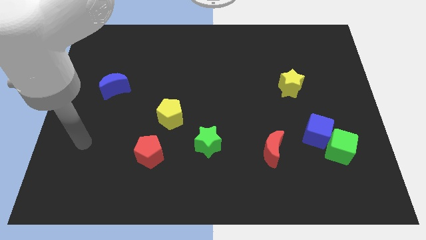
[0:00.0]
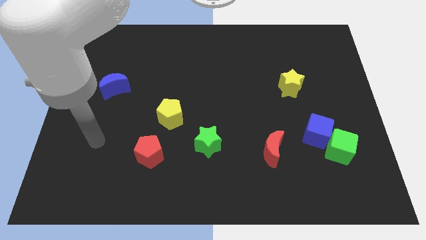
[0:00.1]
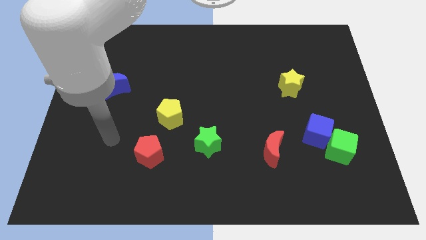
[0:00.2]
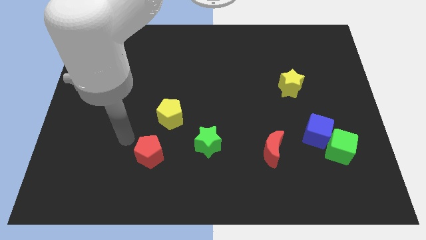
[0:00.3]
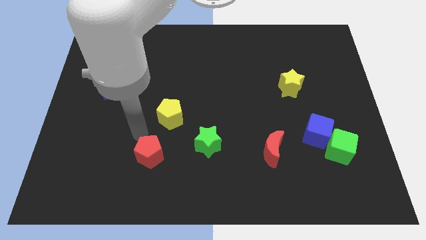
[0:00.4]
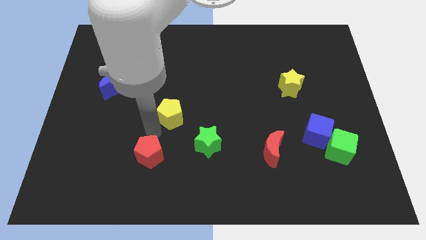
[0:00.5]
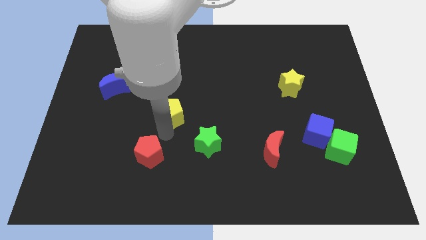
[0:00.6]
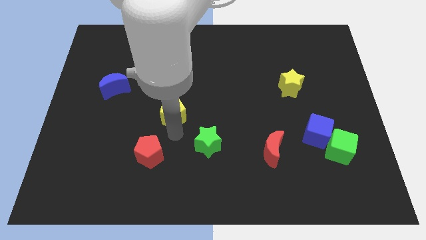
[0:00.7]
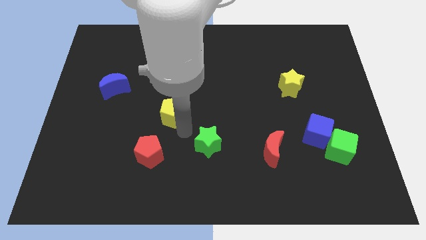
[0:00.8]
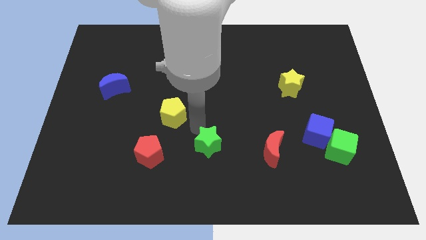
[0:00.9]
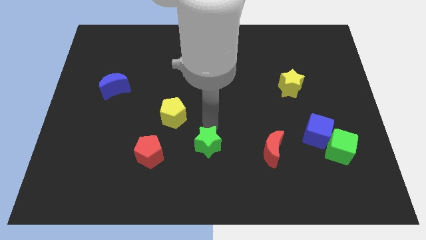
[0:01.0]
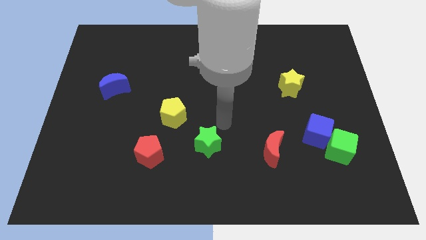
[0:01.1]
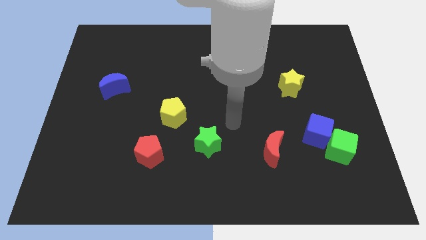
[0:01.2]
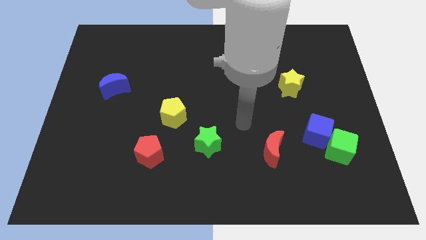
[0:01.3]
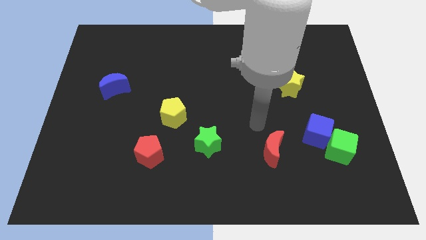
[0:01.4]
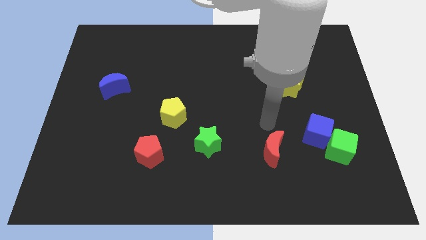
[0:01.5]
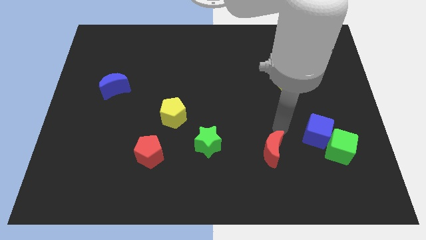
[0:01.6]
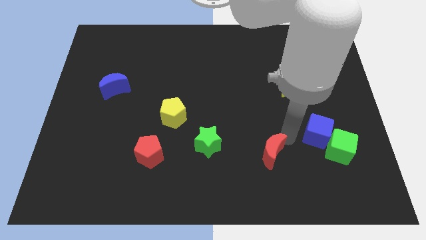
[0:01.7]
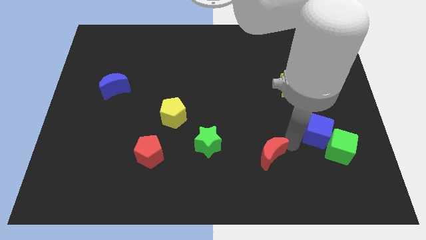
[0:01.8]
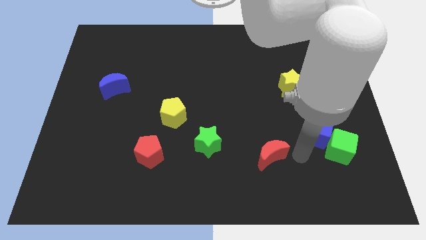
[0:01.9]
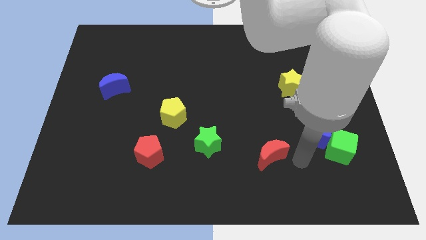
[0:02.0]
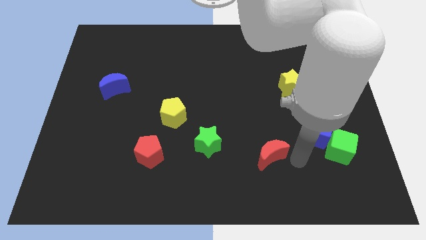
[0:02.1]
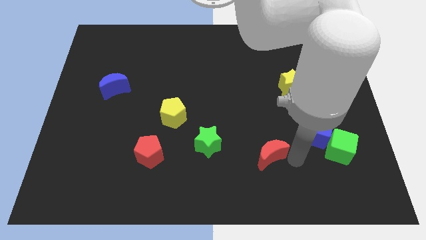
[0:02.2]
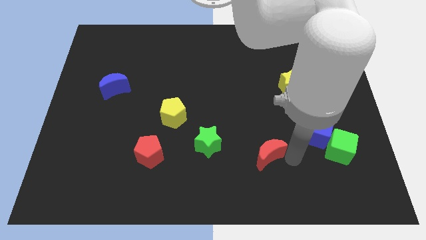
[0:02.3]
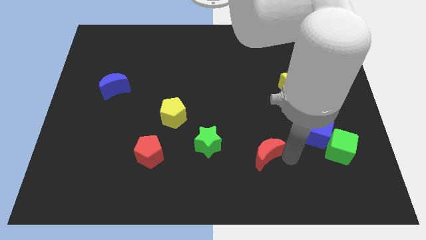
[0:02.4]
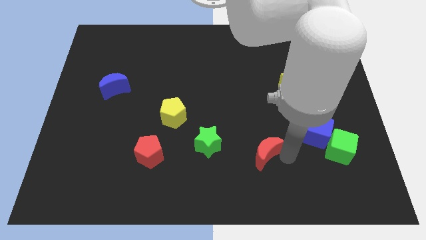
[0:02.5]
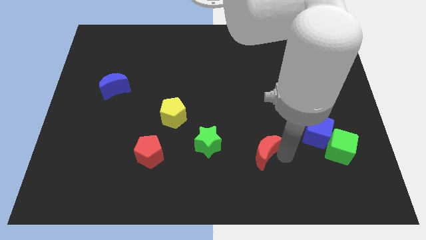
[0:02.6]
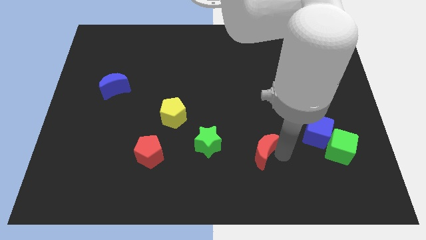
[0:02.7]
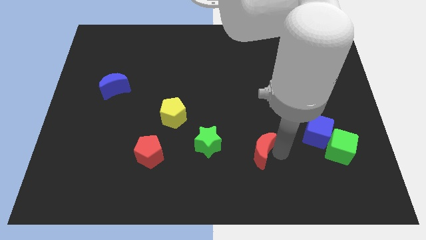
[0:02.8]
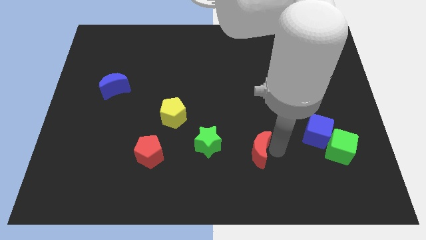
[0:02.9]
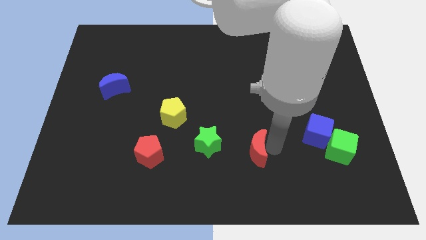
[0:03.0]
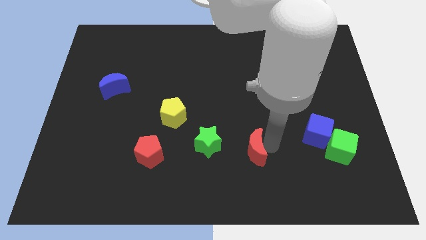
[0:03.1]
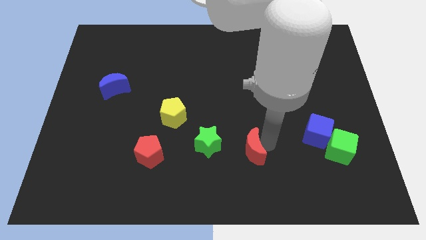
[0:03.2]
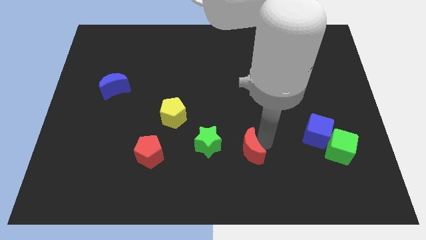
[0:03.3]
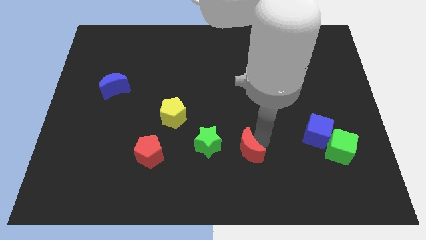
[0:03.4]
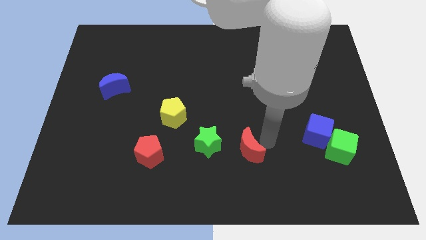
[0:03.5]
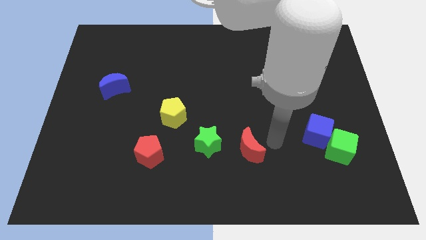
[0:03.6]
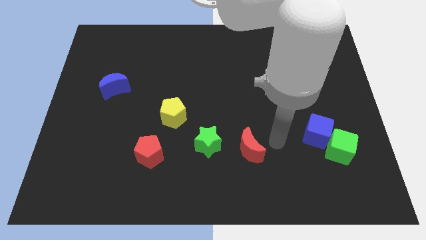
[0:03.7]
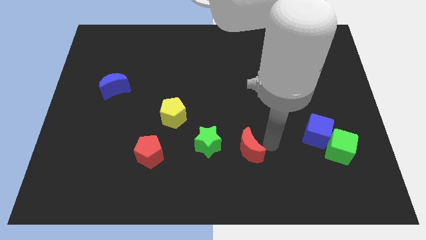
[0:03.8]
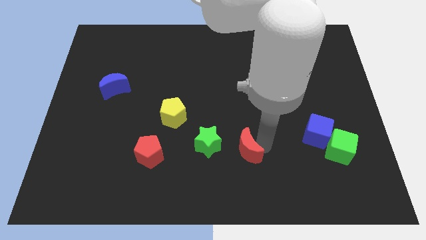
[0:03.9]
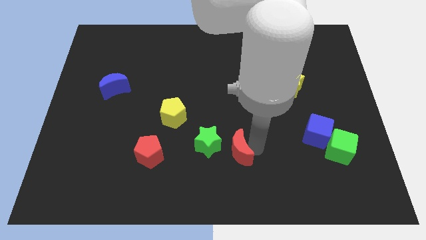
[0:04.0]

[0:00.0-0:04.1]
move the red moon to the left a bit

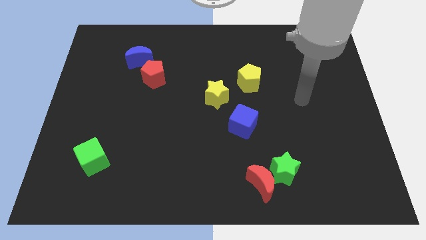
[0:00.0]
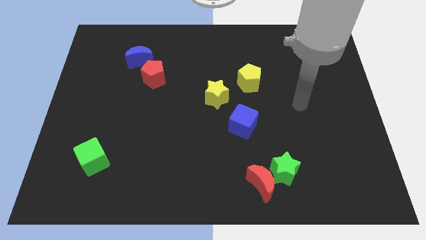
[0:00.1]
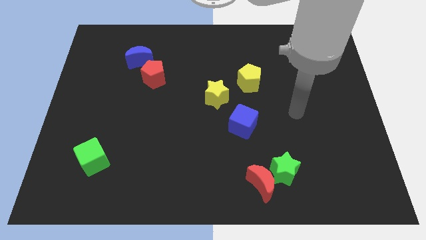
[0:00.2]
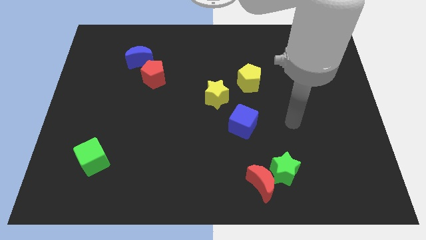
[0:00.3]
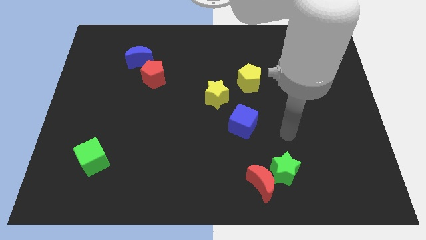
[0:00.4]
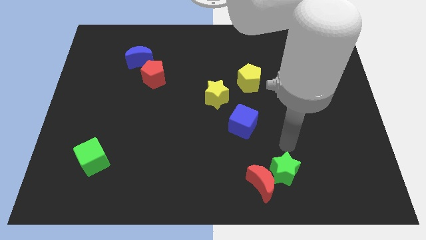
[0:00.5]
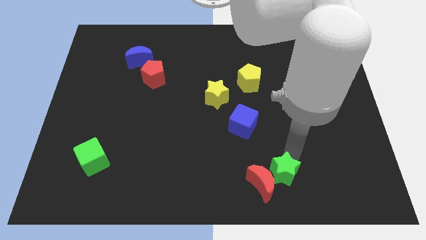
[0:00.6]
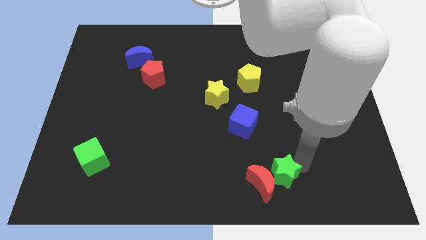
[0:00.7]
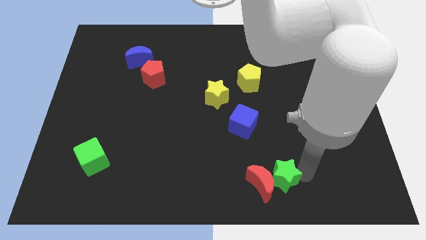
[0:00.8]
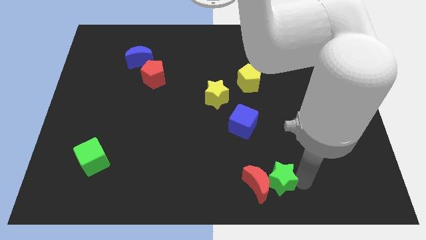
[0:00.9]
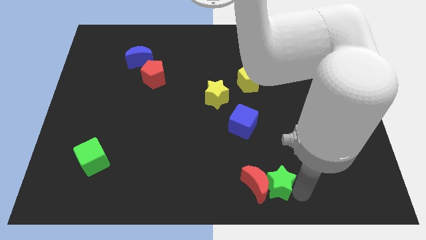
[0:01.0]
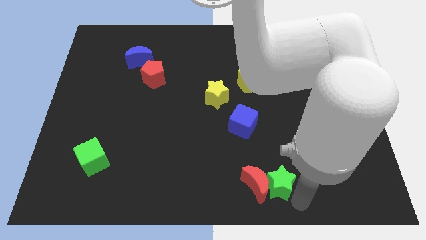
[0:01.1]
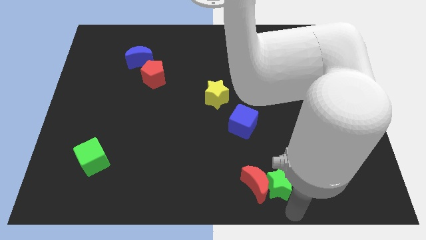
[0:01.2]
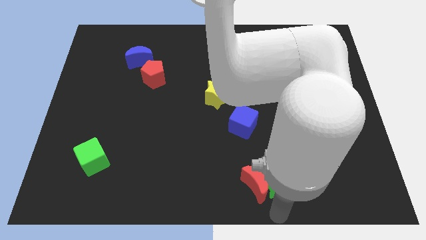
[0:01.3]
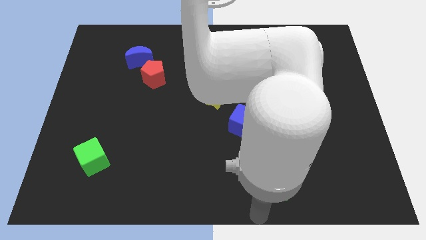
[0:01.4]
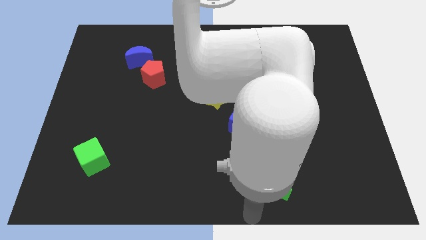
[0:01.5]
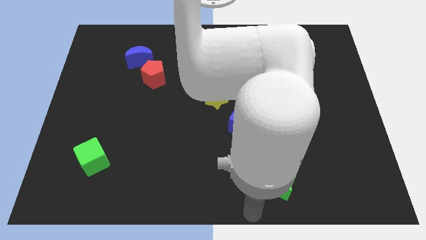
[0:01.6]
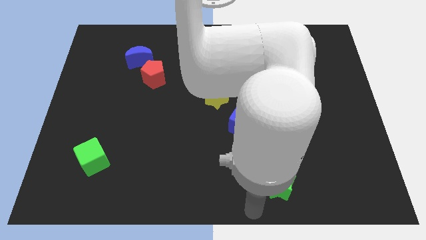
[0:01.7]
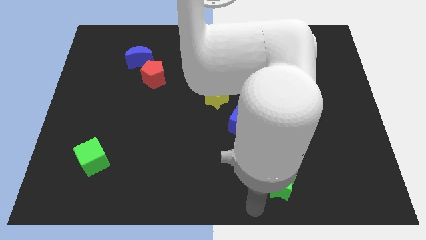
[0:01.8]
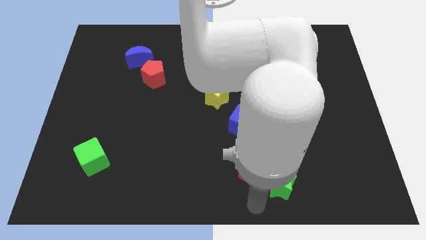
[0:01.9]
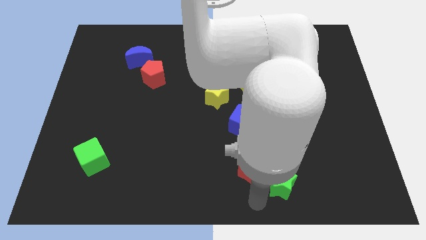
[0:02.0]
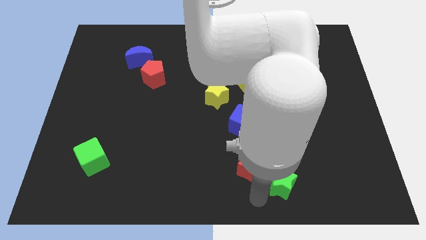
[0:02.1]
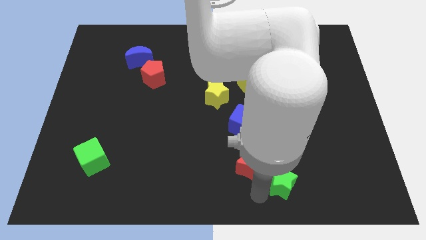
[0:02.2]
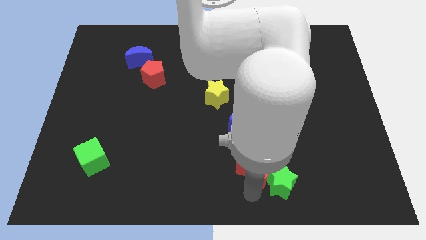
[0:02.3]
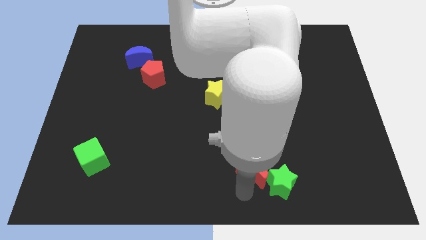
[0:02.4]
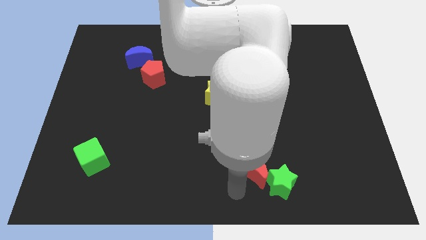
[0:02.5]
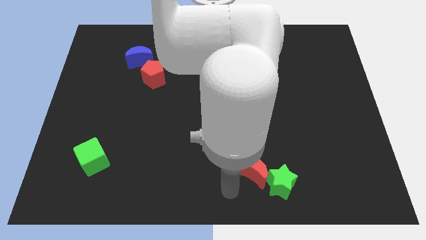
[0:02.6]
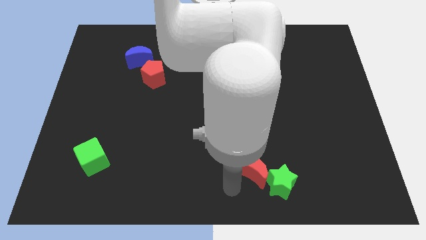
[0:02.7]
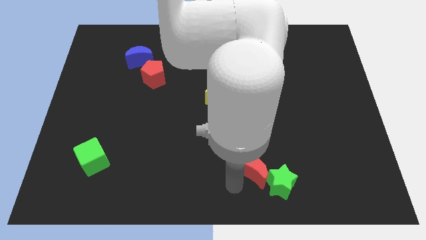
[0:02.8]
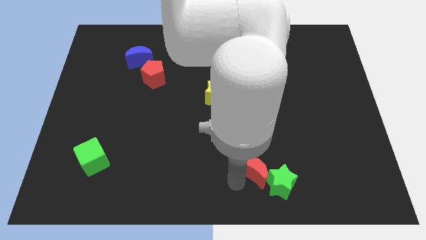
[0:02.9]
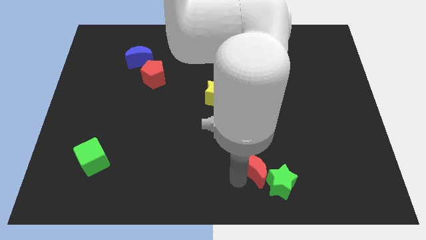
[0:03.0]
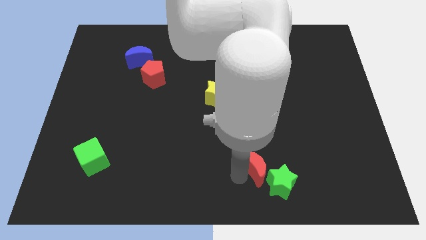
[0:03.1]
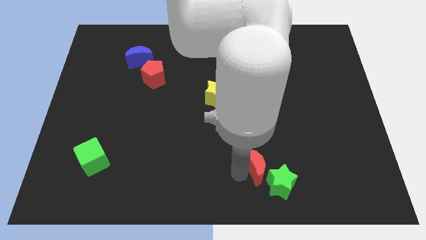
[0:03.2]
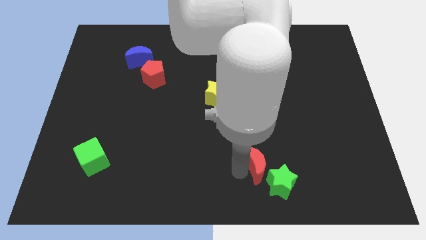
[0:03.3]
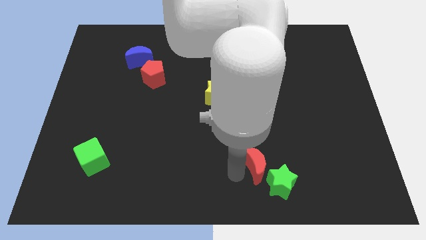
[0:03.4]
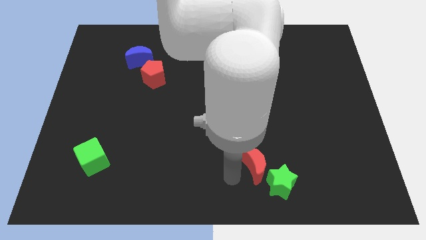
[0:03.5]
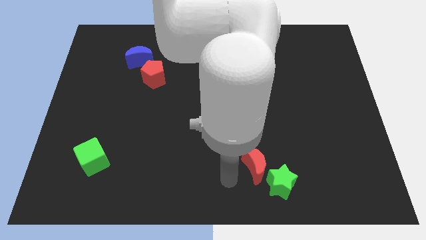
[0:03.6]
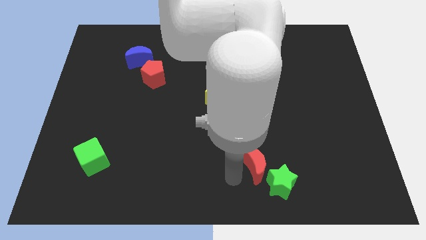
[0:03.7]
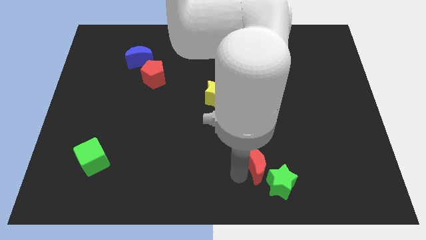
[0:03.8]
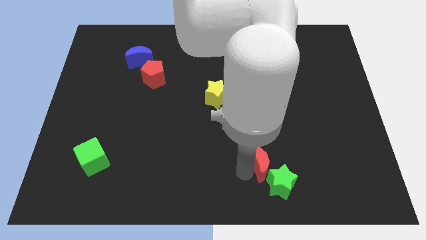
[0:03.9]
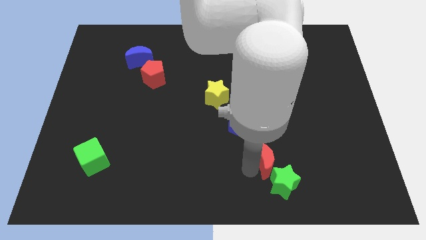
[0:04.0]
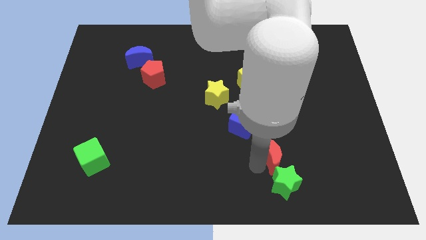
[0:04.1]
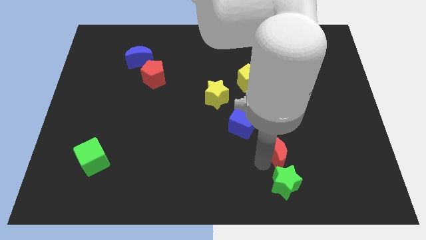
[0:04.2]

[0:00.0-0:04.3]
slightly push the red moon upwards and to the right diagonally
